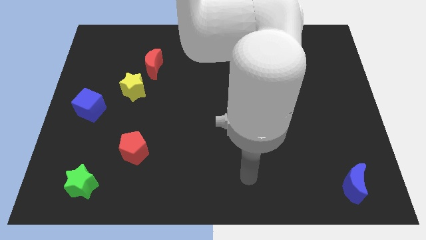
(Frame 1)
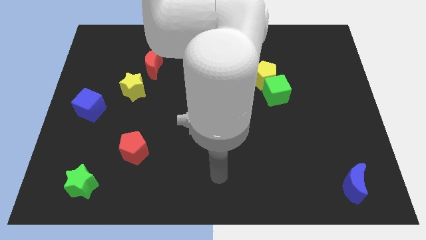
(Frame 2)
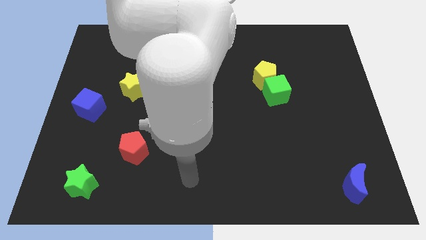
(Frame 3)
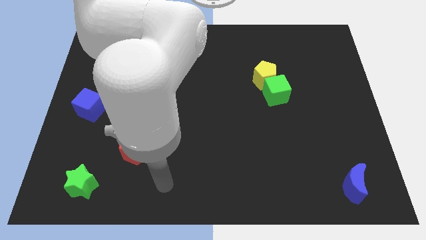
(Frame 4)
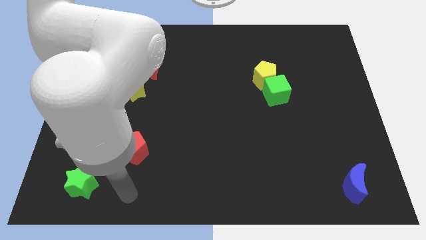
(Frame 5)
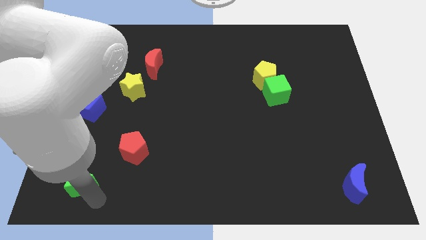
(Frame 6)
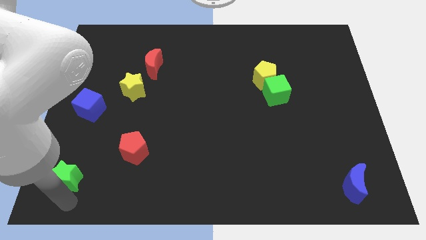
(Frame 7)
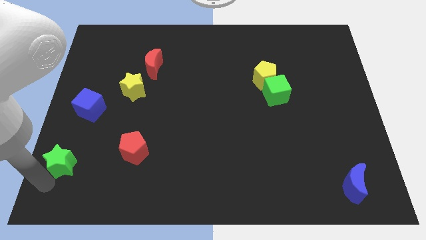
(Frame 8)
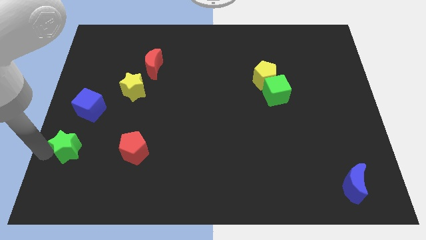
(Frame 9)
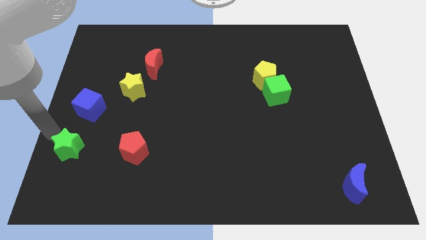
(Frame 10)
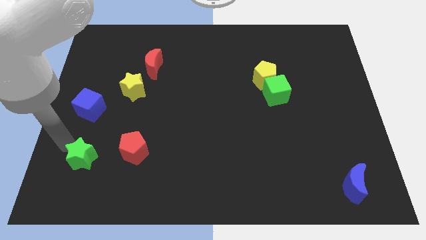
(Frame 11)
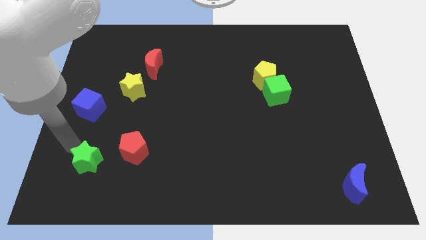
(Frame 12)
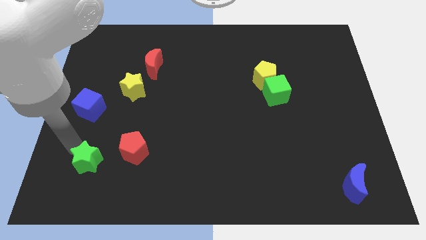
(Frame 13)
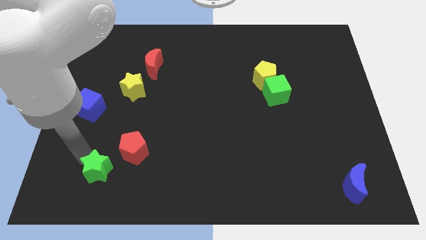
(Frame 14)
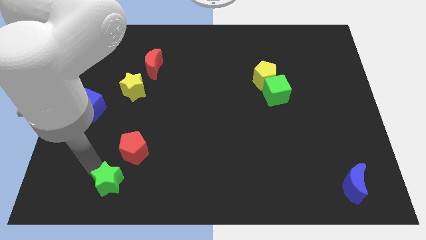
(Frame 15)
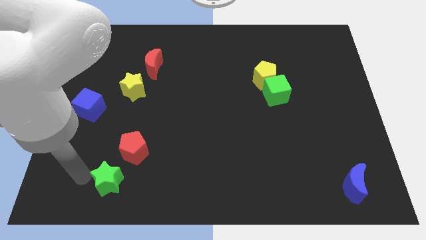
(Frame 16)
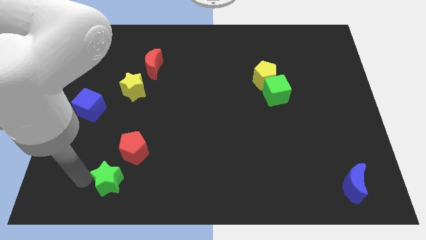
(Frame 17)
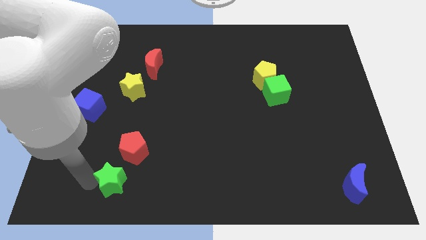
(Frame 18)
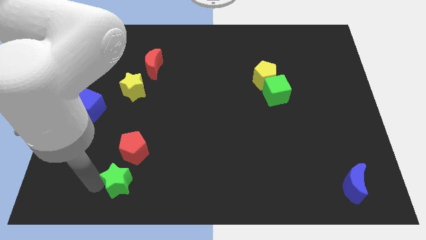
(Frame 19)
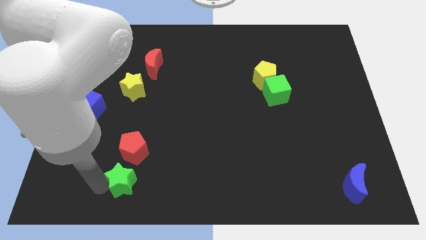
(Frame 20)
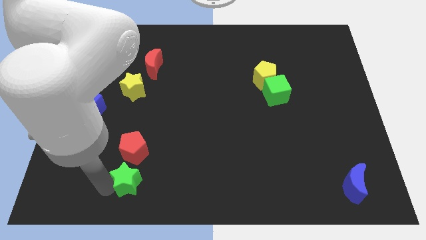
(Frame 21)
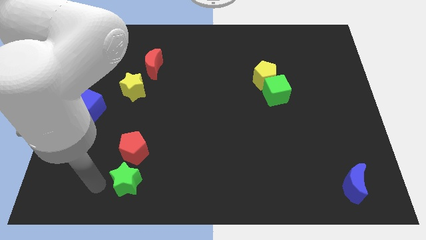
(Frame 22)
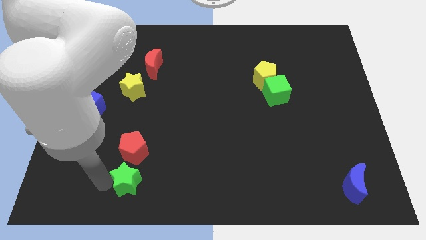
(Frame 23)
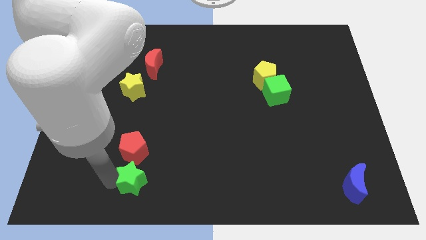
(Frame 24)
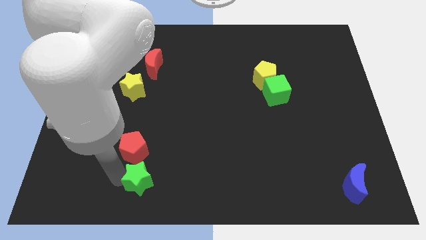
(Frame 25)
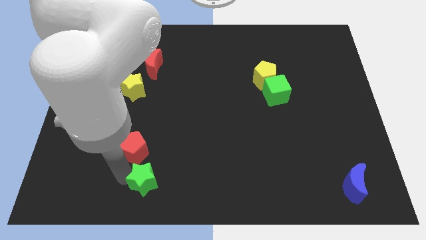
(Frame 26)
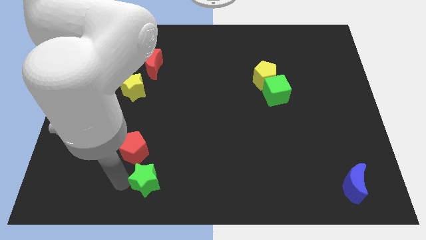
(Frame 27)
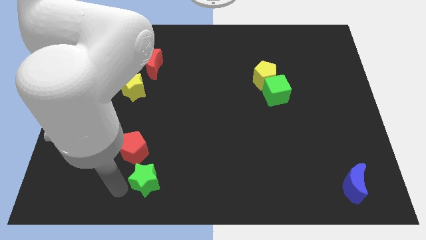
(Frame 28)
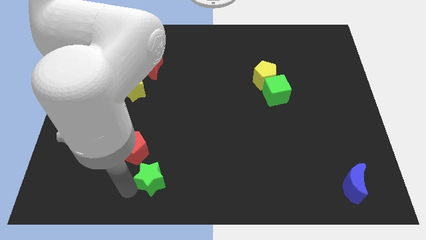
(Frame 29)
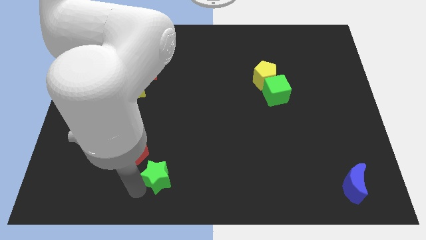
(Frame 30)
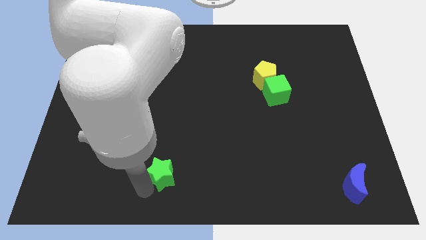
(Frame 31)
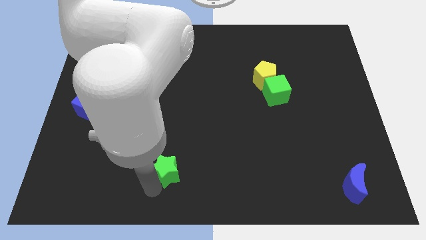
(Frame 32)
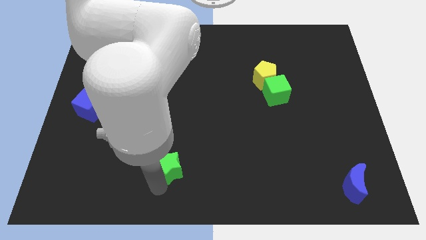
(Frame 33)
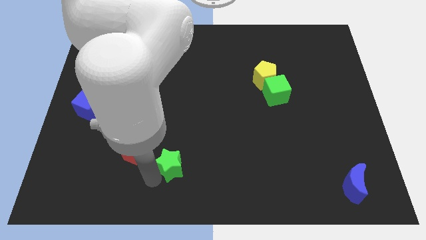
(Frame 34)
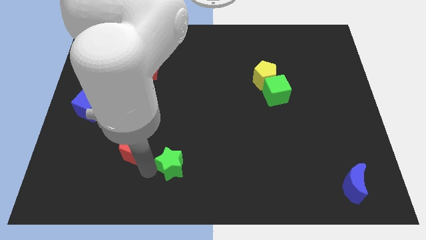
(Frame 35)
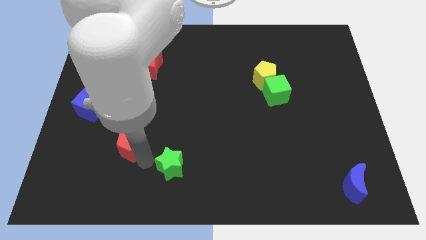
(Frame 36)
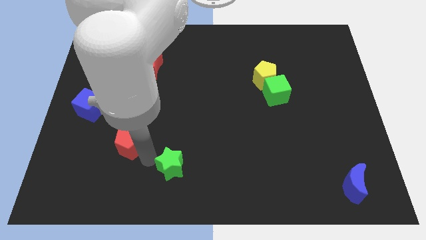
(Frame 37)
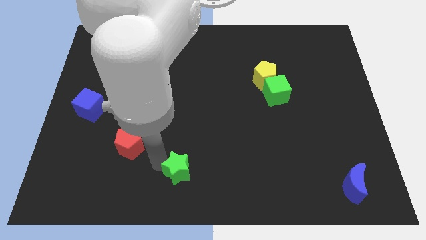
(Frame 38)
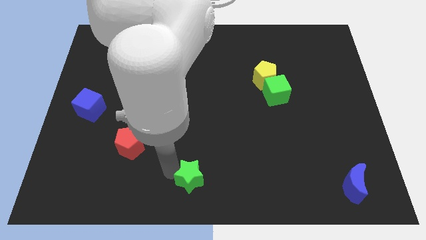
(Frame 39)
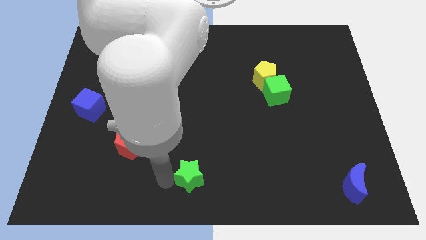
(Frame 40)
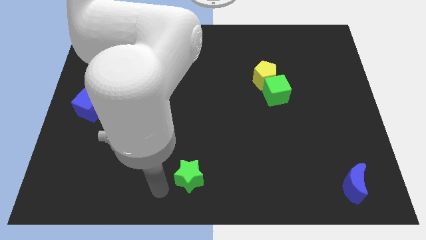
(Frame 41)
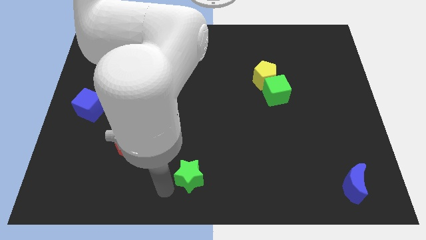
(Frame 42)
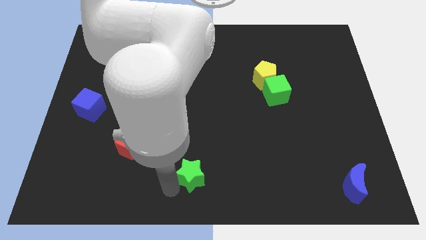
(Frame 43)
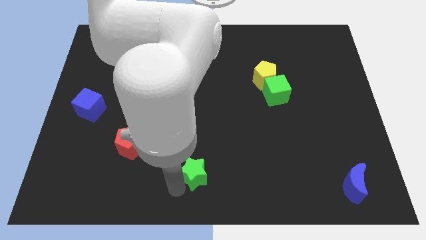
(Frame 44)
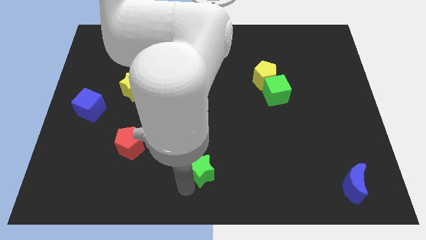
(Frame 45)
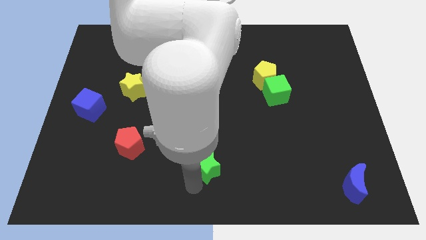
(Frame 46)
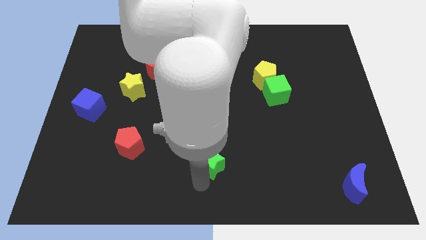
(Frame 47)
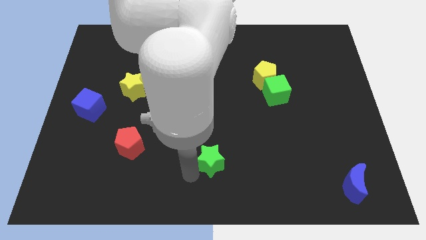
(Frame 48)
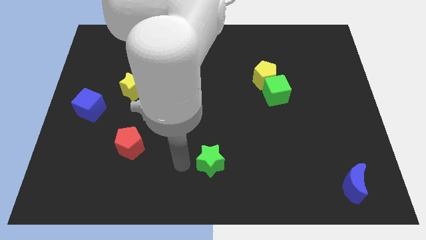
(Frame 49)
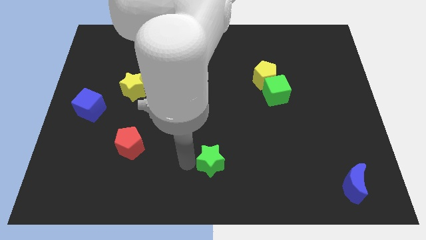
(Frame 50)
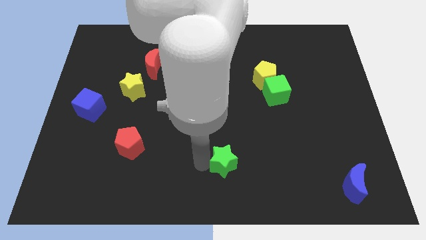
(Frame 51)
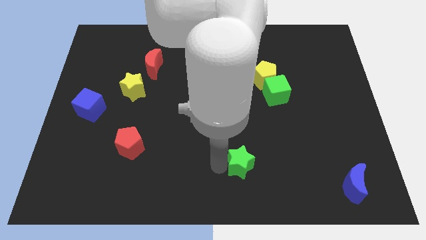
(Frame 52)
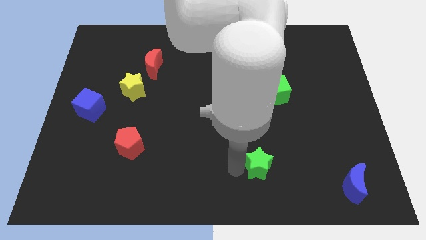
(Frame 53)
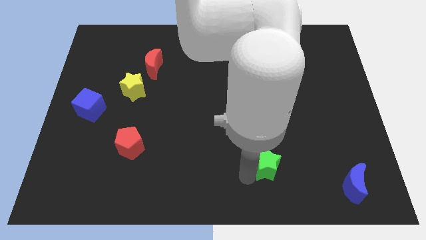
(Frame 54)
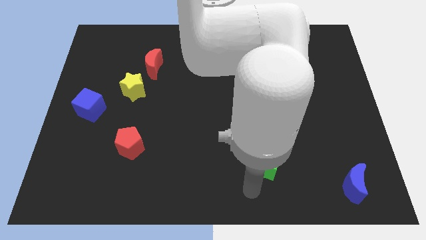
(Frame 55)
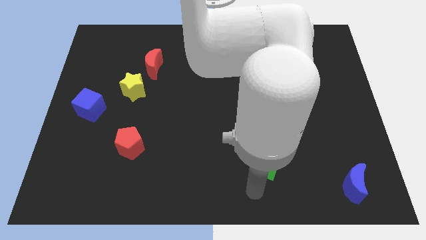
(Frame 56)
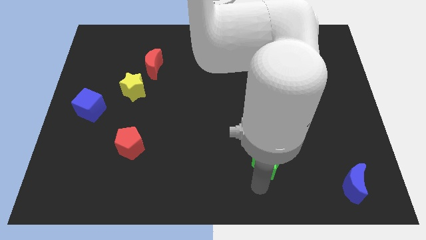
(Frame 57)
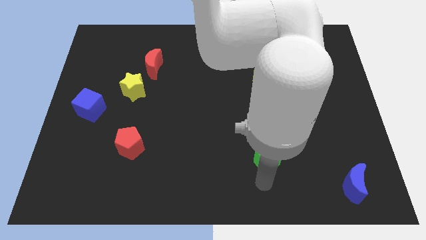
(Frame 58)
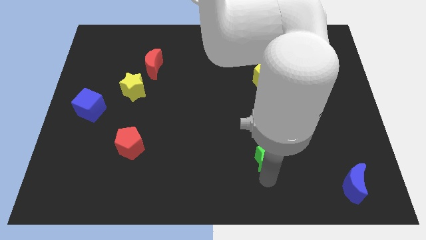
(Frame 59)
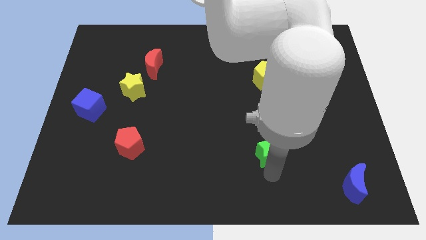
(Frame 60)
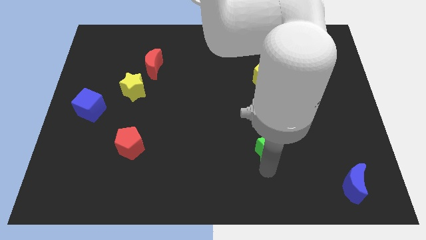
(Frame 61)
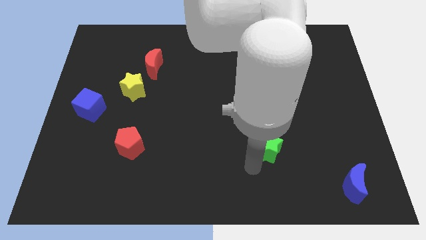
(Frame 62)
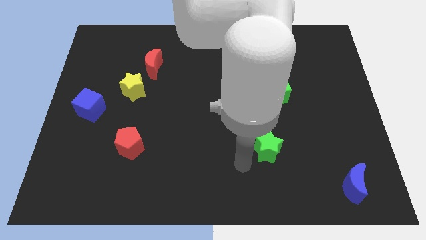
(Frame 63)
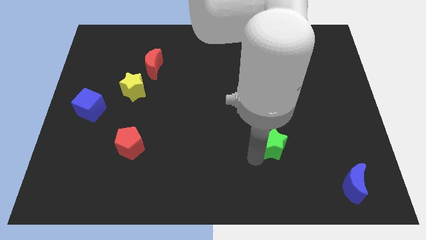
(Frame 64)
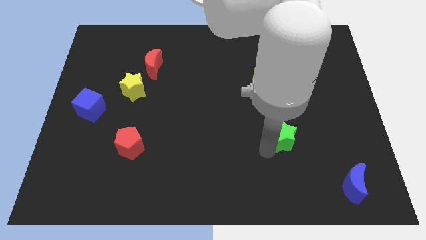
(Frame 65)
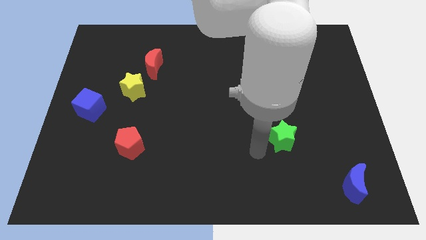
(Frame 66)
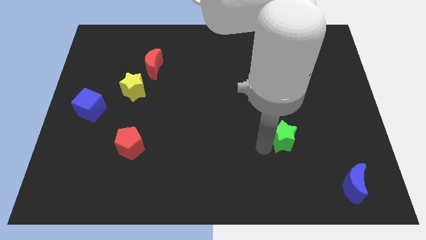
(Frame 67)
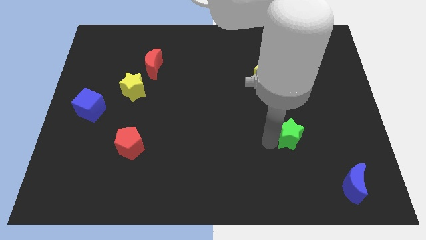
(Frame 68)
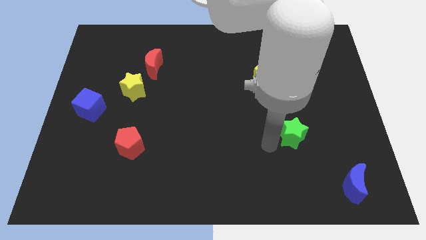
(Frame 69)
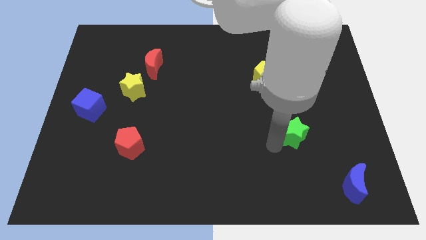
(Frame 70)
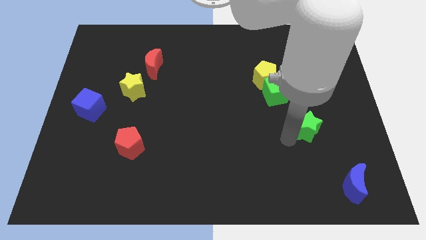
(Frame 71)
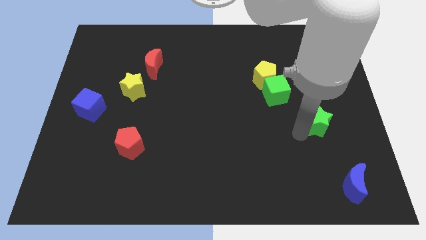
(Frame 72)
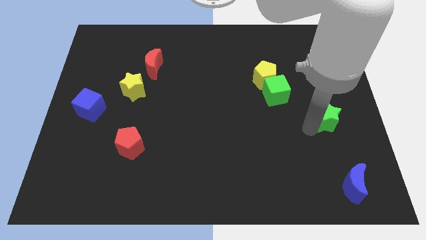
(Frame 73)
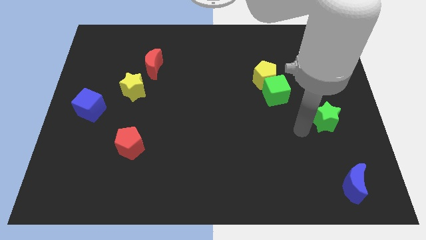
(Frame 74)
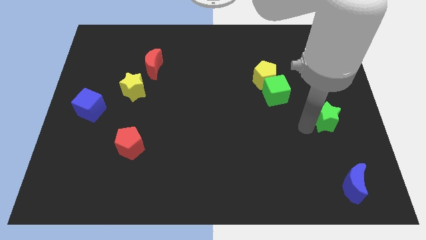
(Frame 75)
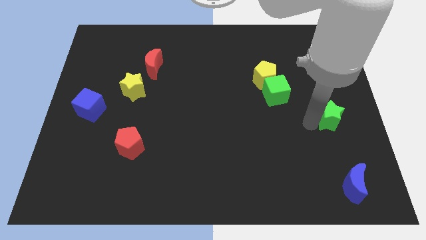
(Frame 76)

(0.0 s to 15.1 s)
move the green star to the right side of the board
